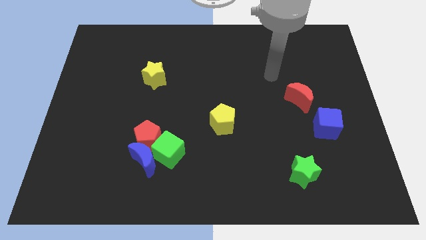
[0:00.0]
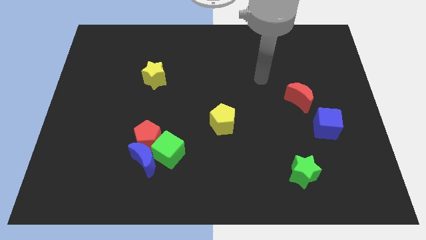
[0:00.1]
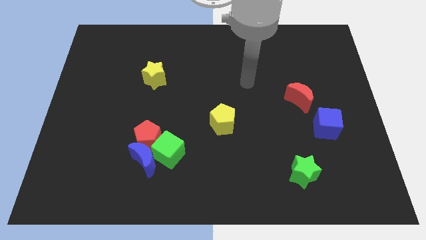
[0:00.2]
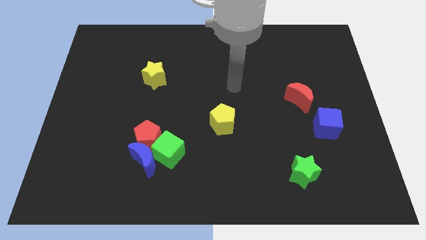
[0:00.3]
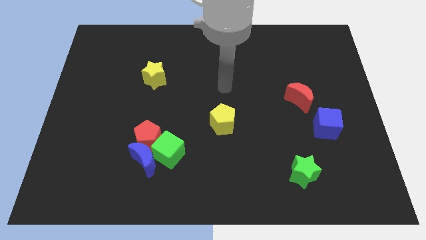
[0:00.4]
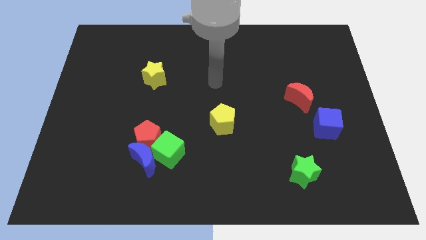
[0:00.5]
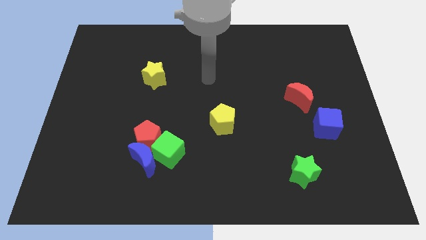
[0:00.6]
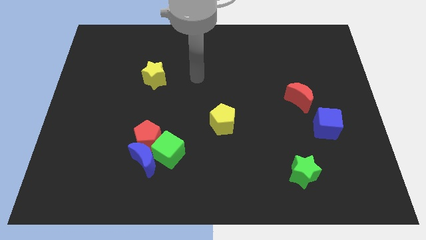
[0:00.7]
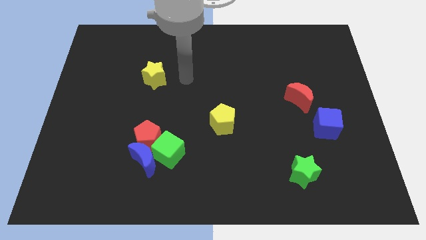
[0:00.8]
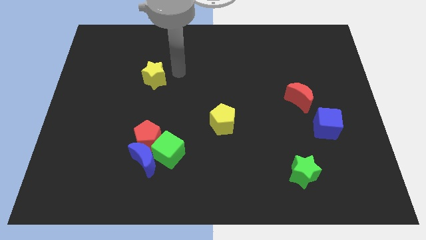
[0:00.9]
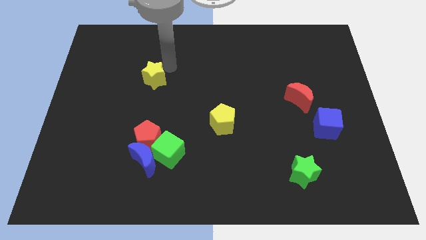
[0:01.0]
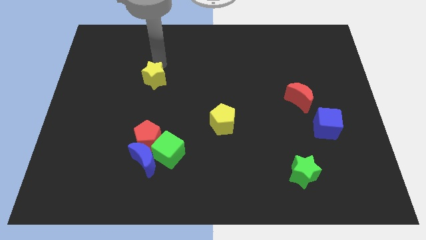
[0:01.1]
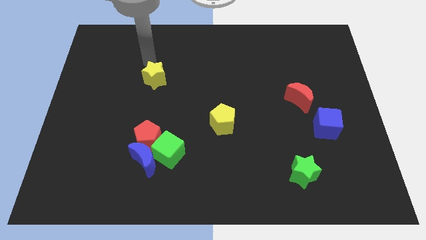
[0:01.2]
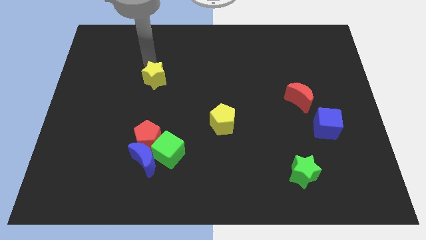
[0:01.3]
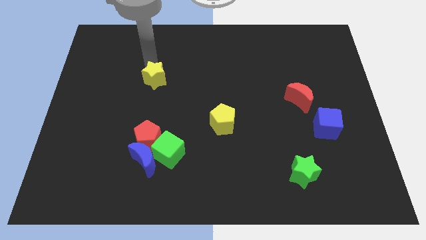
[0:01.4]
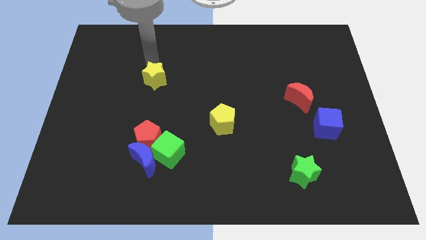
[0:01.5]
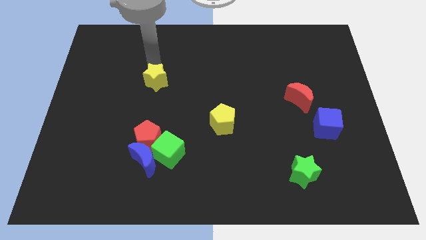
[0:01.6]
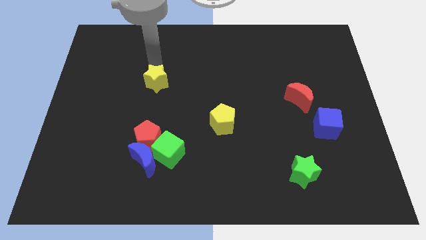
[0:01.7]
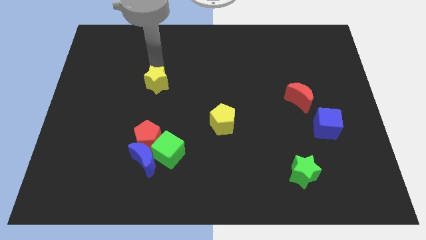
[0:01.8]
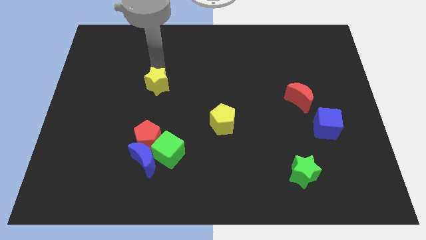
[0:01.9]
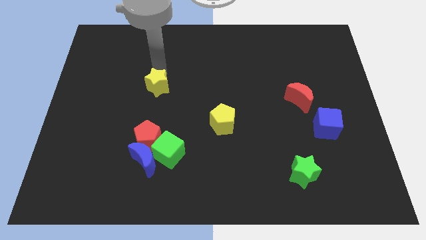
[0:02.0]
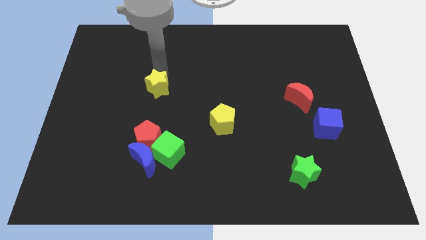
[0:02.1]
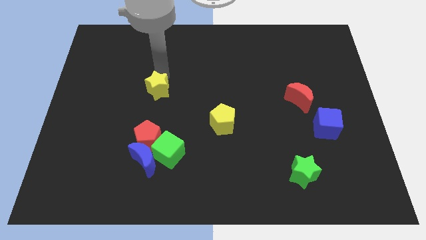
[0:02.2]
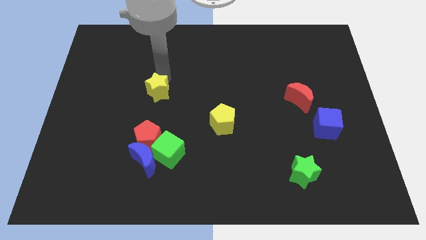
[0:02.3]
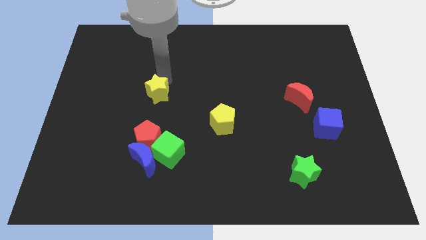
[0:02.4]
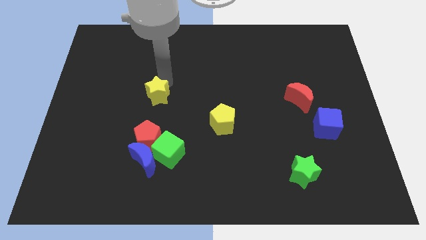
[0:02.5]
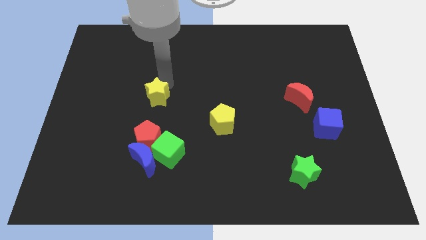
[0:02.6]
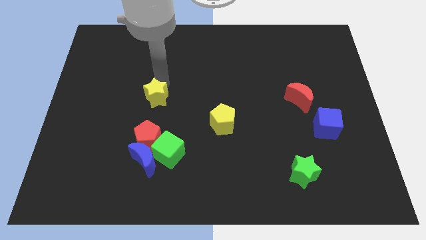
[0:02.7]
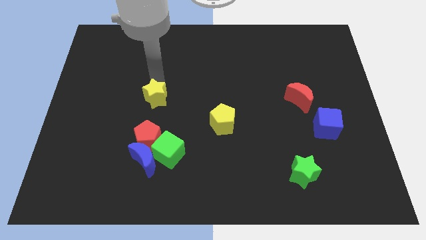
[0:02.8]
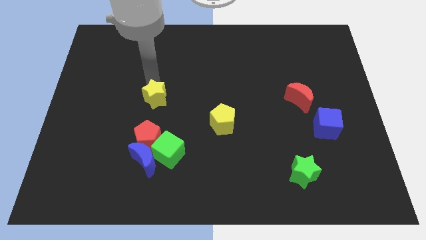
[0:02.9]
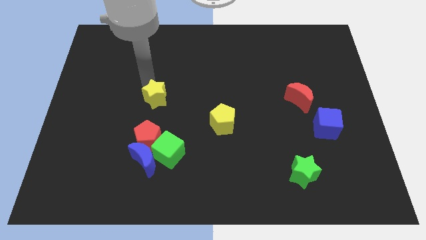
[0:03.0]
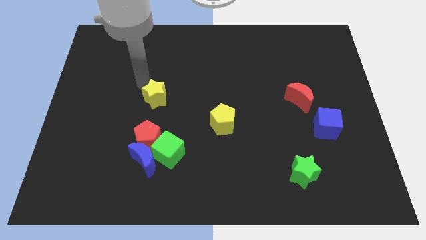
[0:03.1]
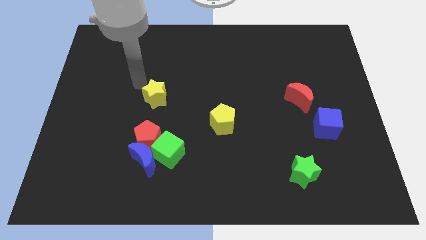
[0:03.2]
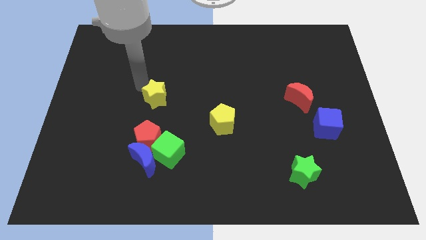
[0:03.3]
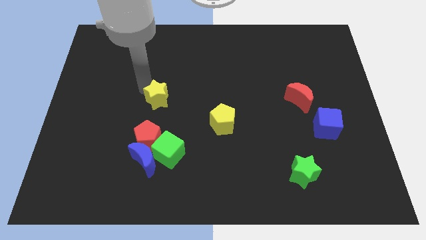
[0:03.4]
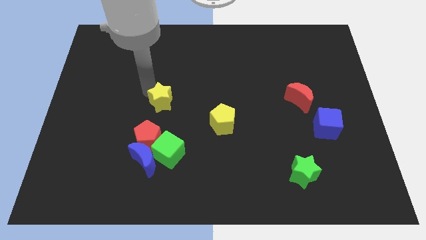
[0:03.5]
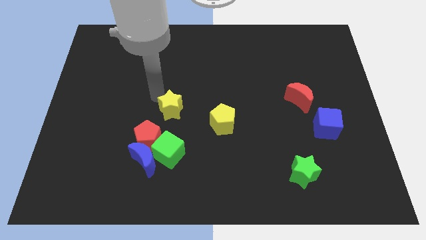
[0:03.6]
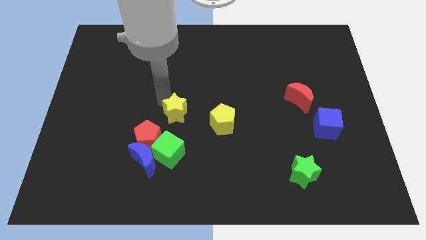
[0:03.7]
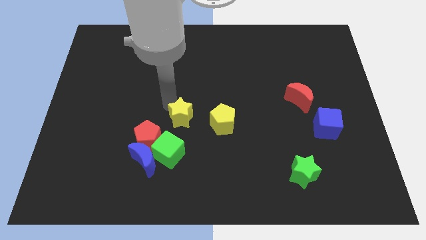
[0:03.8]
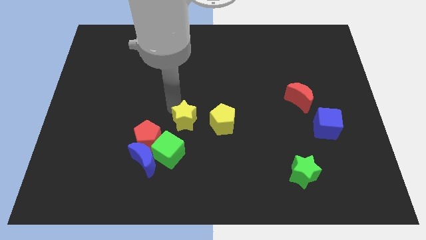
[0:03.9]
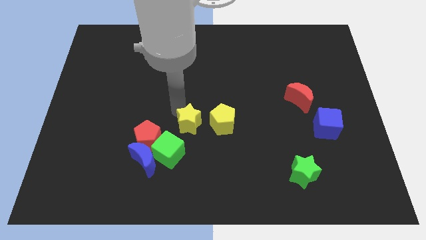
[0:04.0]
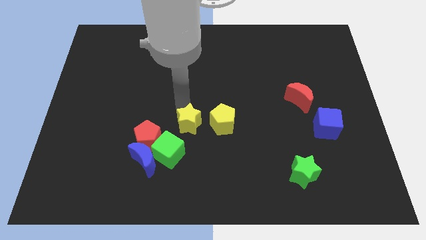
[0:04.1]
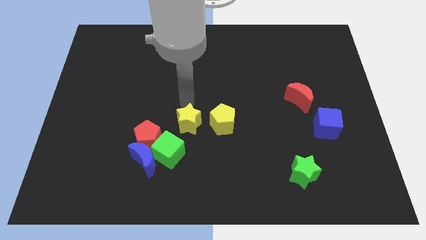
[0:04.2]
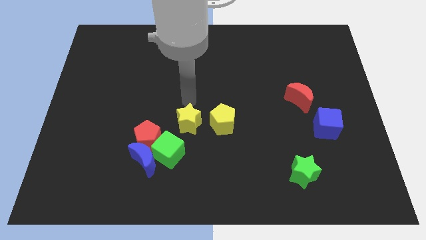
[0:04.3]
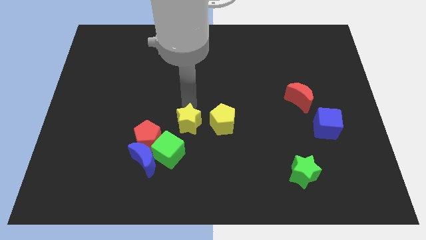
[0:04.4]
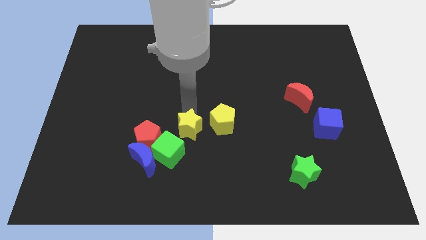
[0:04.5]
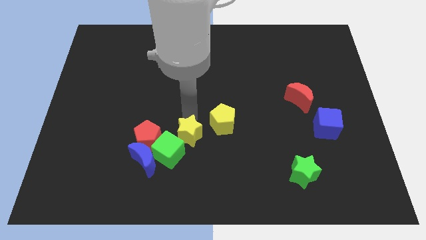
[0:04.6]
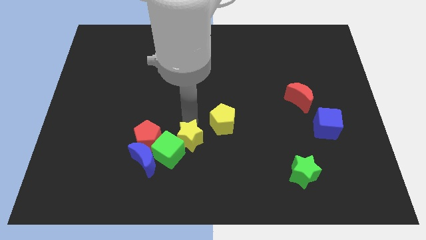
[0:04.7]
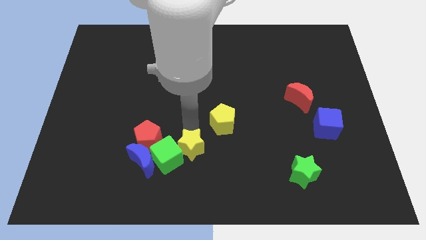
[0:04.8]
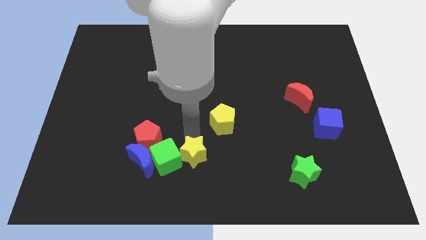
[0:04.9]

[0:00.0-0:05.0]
put the yellow star to the bottom side

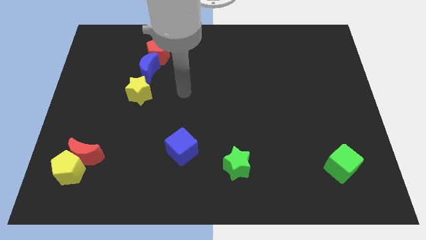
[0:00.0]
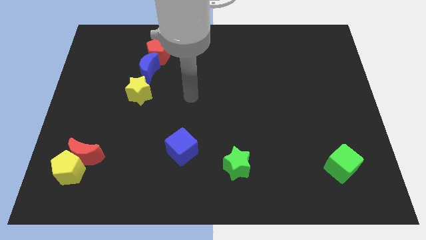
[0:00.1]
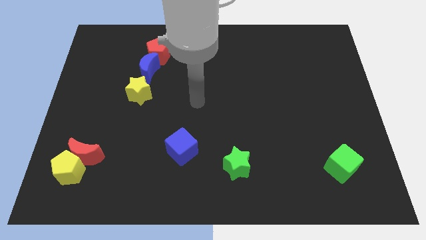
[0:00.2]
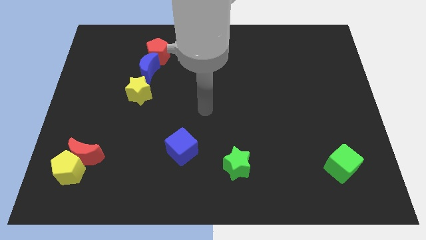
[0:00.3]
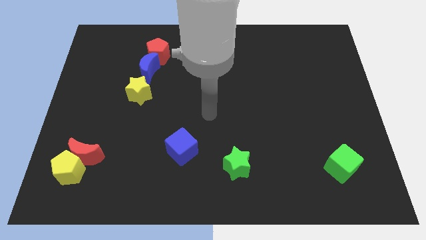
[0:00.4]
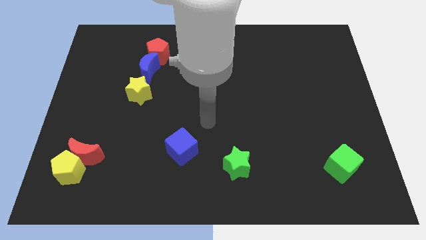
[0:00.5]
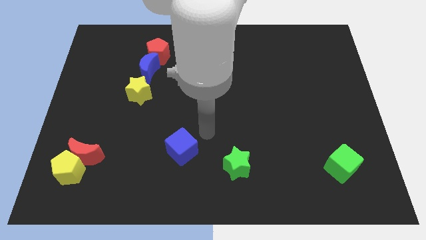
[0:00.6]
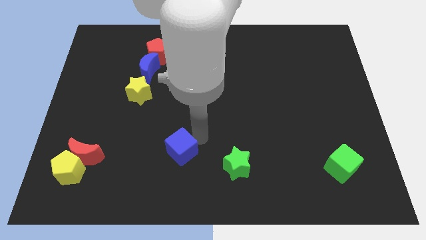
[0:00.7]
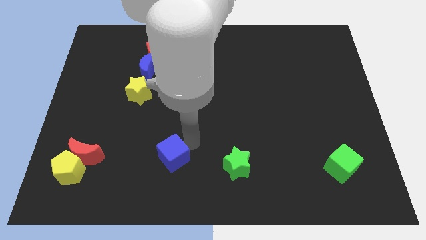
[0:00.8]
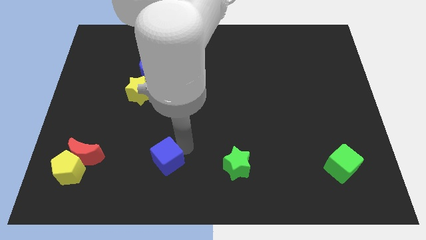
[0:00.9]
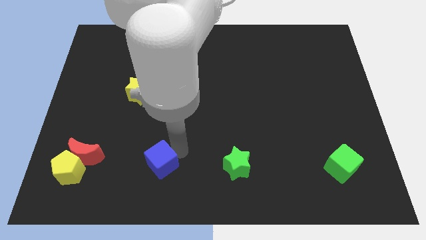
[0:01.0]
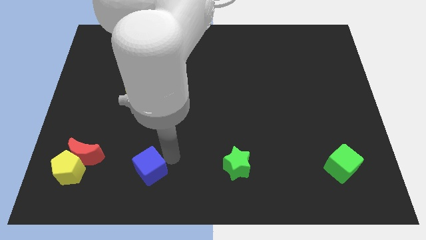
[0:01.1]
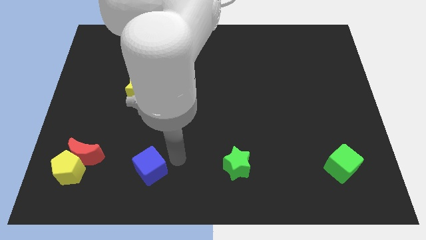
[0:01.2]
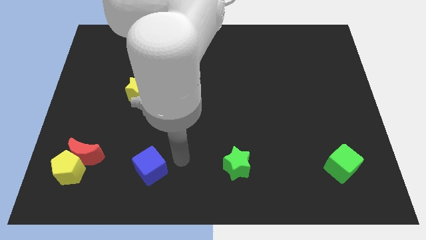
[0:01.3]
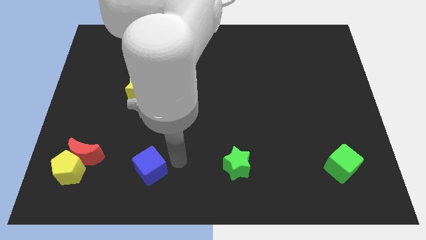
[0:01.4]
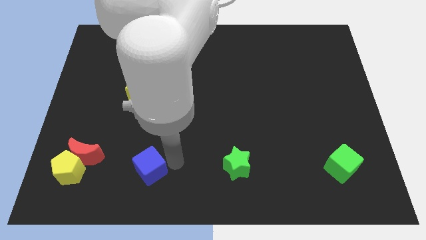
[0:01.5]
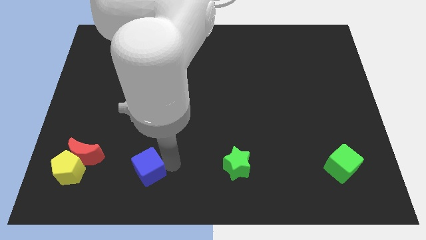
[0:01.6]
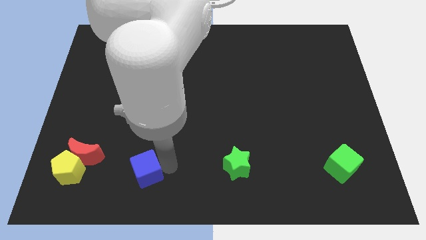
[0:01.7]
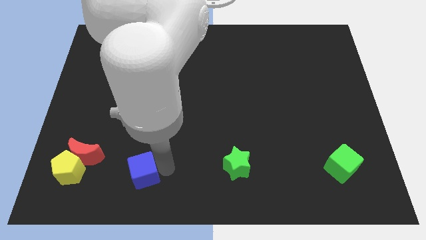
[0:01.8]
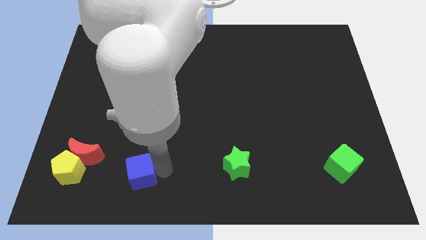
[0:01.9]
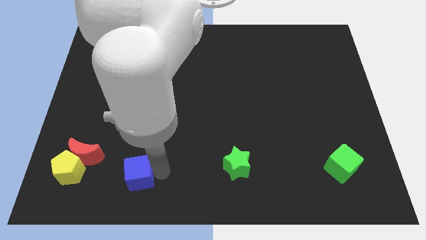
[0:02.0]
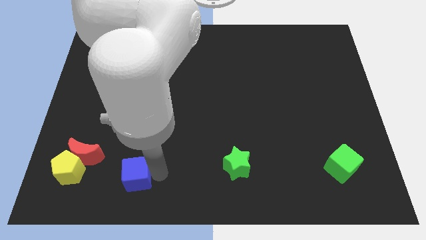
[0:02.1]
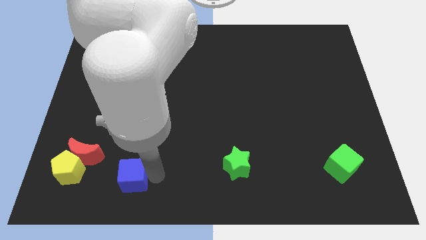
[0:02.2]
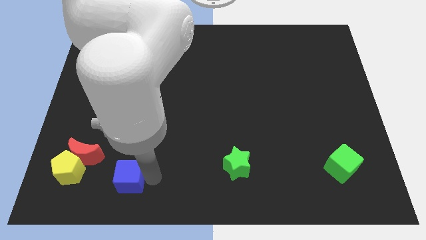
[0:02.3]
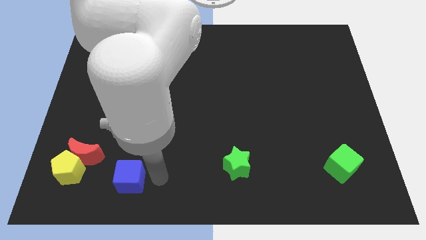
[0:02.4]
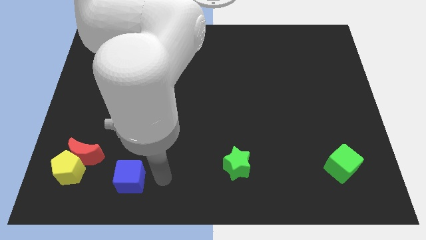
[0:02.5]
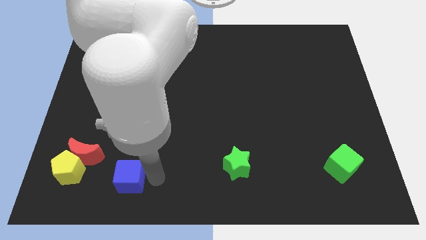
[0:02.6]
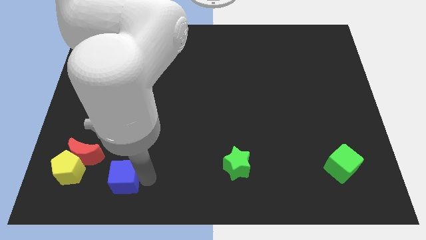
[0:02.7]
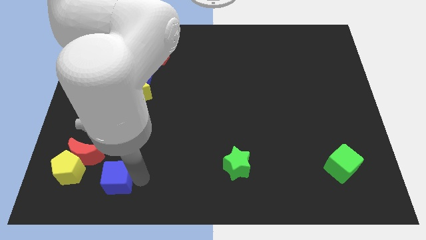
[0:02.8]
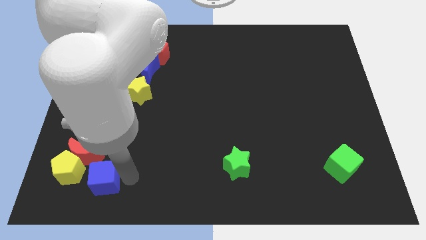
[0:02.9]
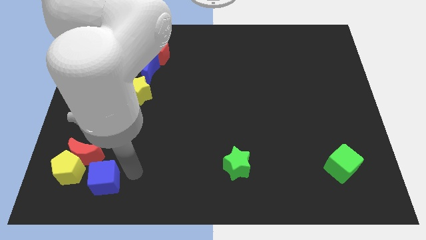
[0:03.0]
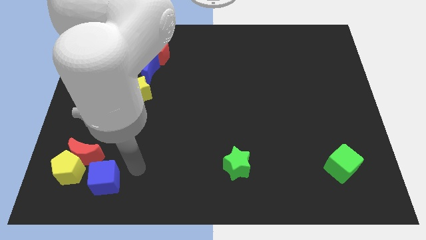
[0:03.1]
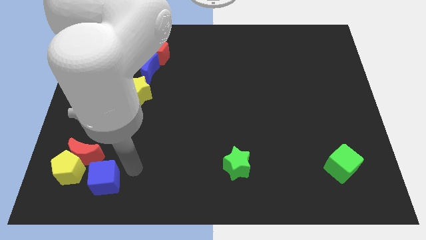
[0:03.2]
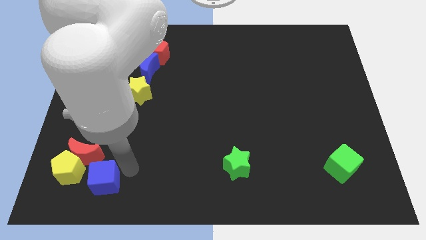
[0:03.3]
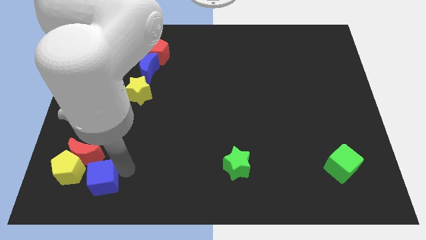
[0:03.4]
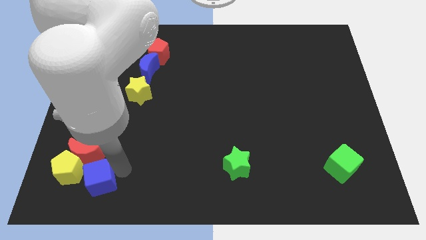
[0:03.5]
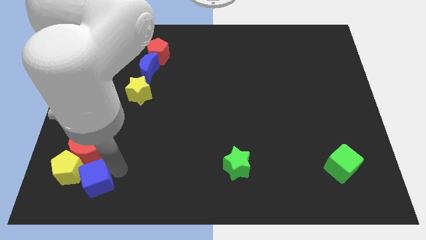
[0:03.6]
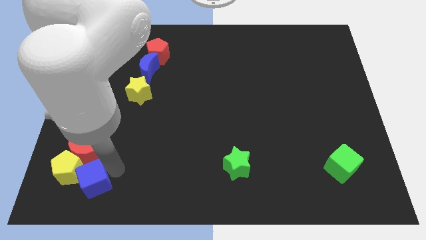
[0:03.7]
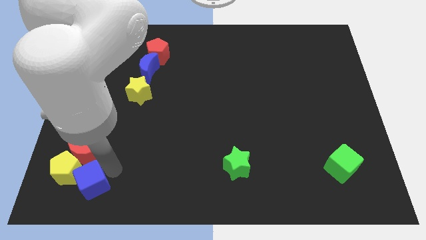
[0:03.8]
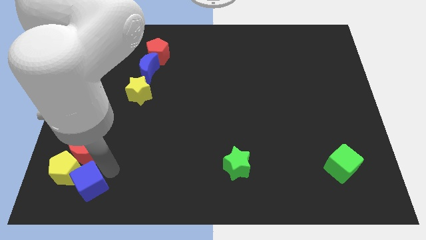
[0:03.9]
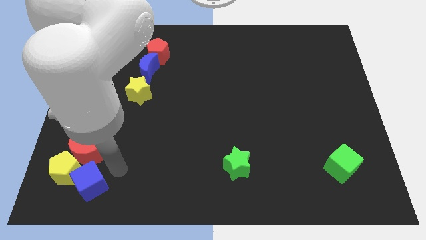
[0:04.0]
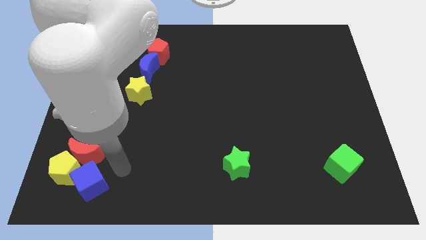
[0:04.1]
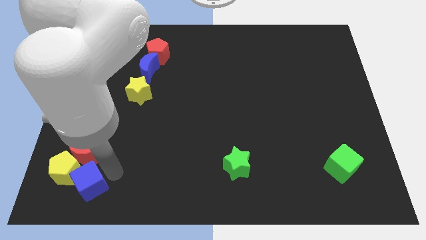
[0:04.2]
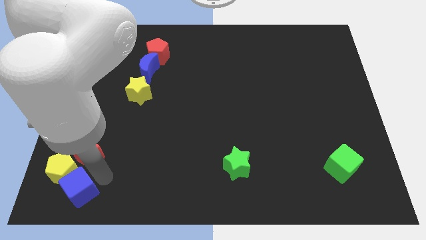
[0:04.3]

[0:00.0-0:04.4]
move the blue cube to the lower left corner
